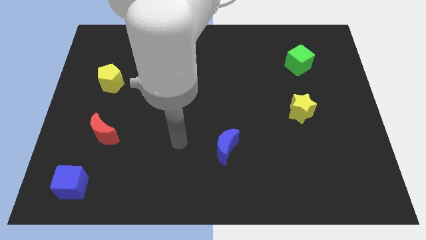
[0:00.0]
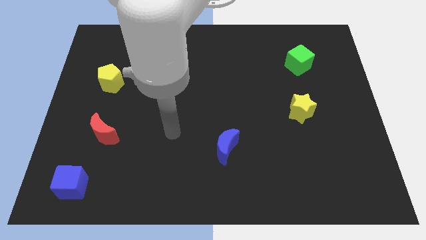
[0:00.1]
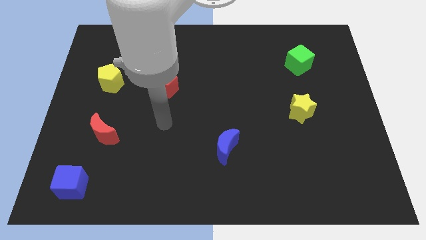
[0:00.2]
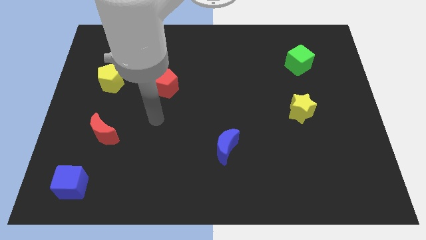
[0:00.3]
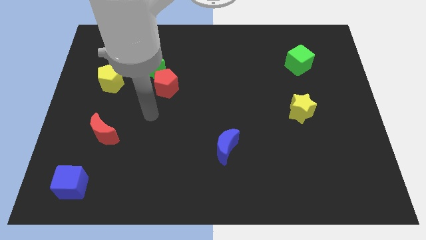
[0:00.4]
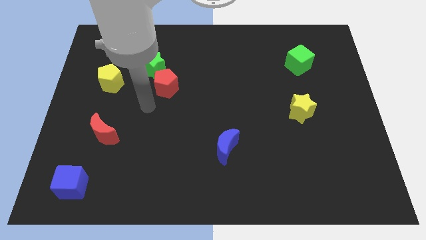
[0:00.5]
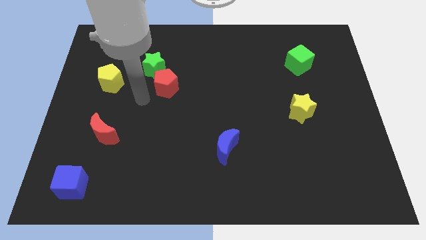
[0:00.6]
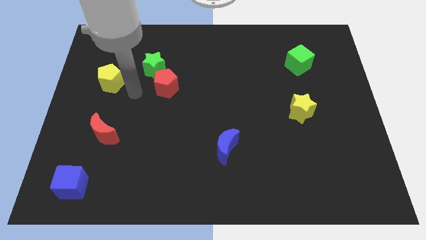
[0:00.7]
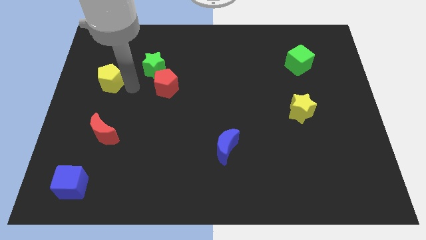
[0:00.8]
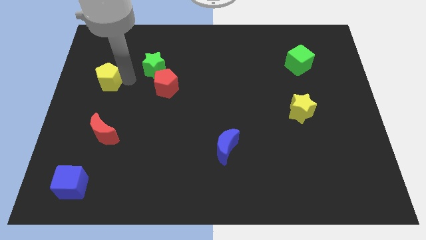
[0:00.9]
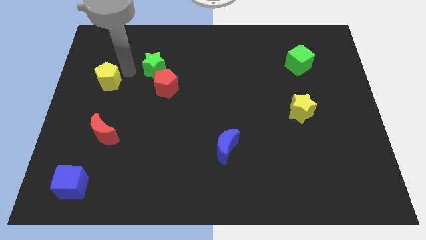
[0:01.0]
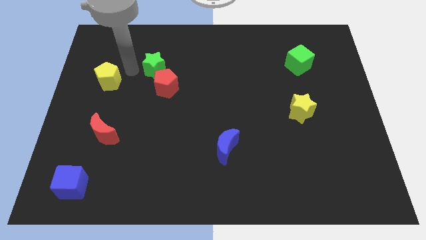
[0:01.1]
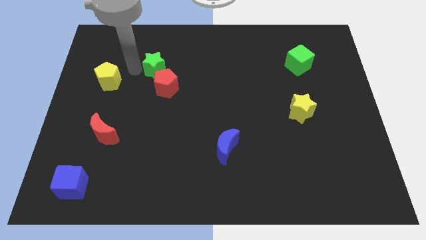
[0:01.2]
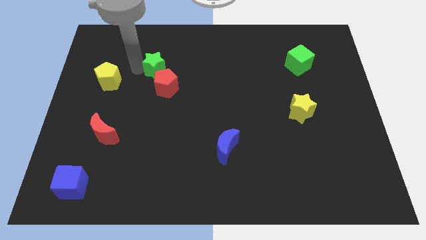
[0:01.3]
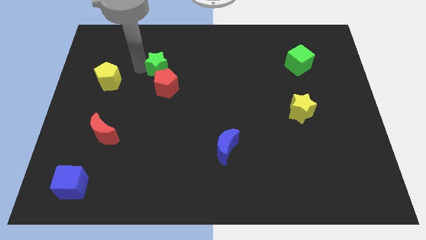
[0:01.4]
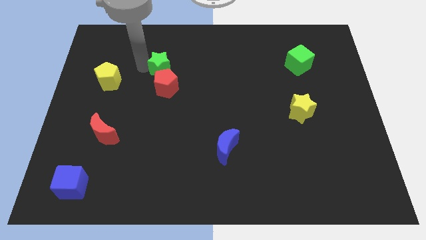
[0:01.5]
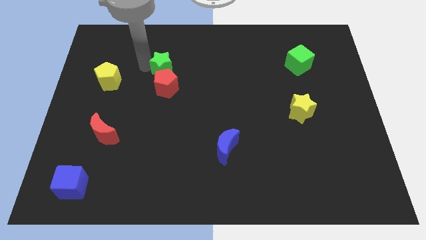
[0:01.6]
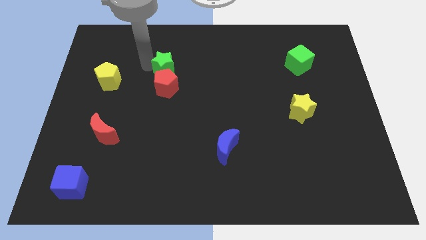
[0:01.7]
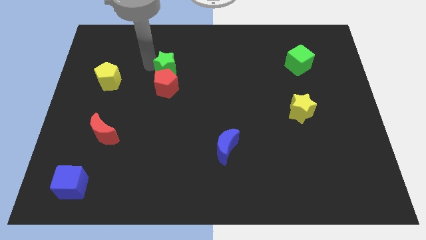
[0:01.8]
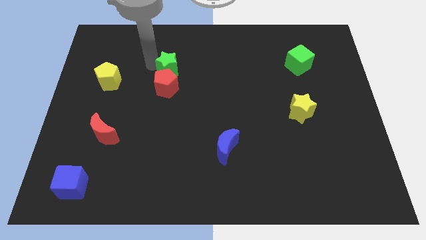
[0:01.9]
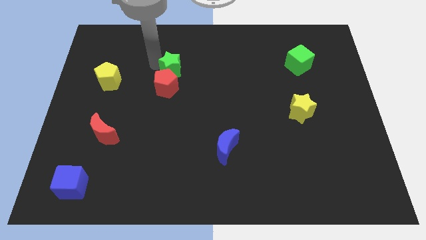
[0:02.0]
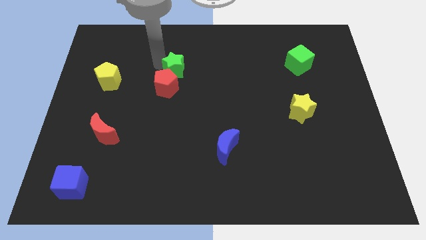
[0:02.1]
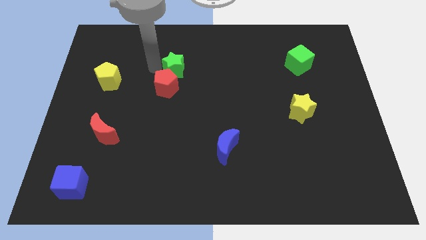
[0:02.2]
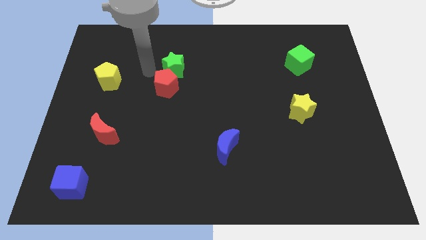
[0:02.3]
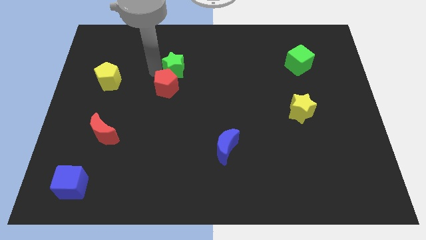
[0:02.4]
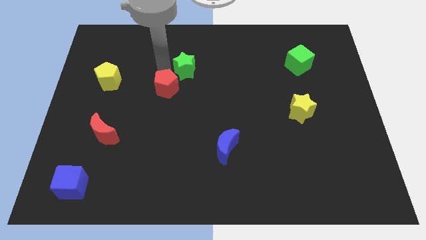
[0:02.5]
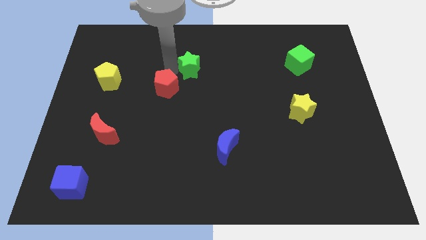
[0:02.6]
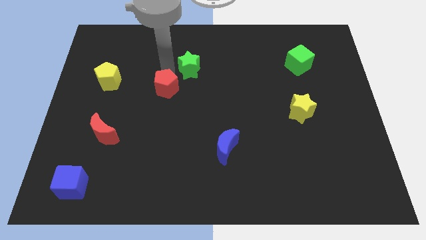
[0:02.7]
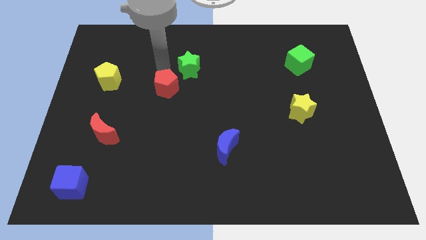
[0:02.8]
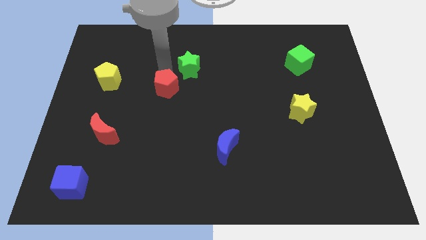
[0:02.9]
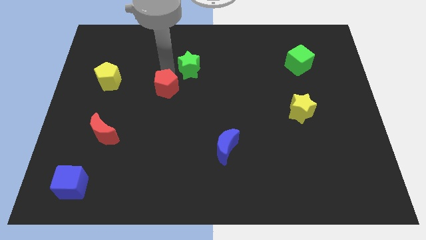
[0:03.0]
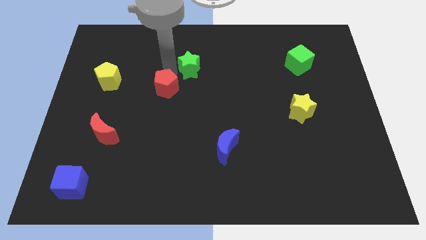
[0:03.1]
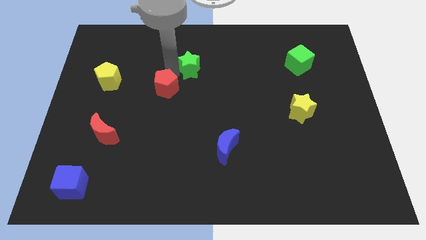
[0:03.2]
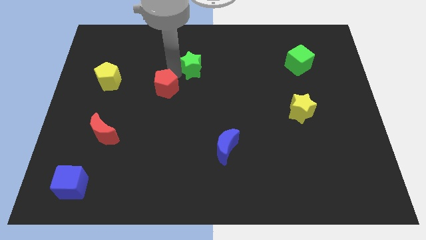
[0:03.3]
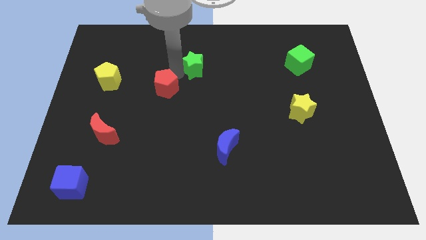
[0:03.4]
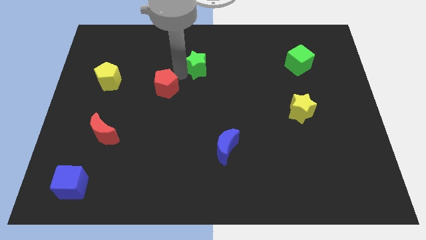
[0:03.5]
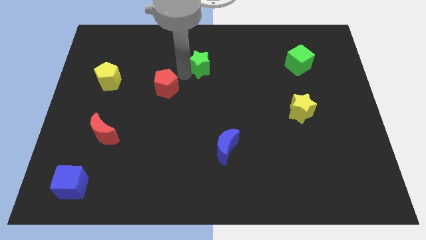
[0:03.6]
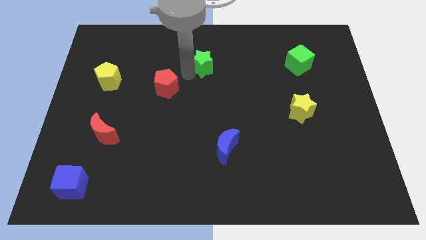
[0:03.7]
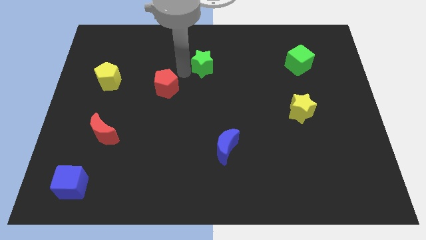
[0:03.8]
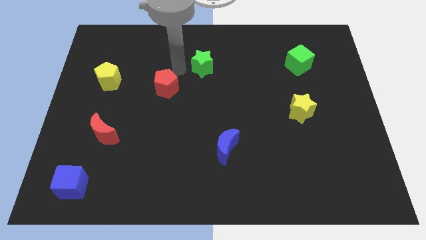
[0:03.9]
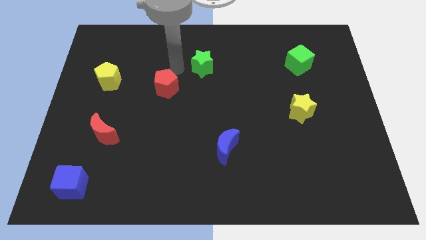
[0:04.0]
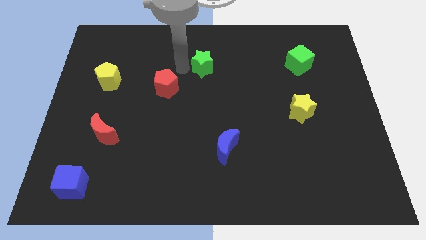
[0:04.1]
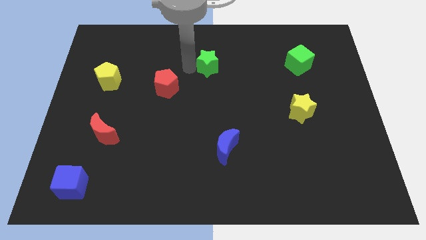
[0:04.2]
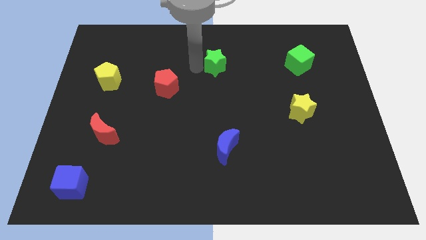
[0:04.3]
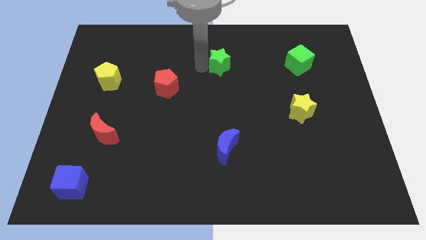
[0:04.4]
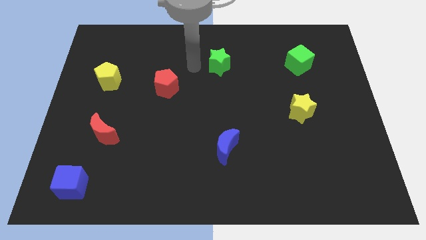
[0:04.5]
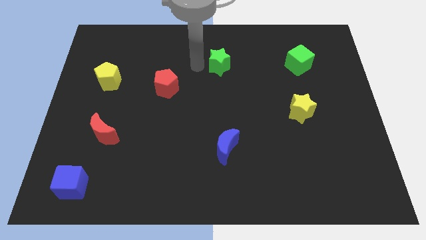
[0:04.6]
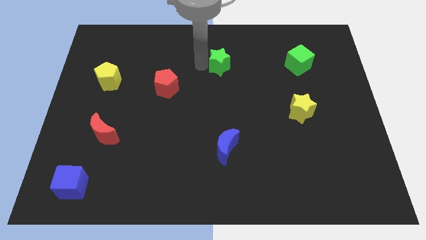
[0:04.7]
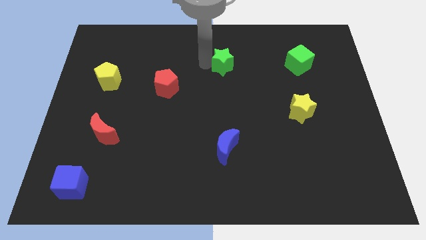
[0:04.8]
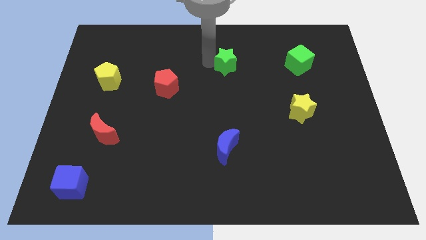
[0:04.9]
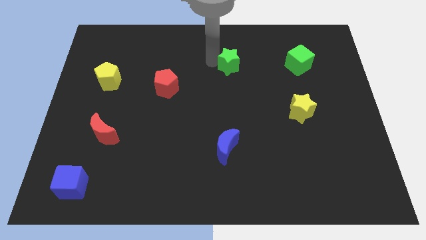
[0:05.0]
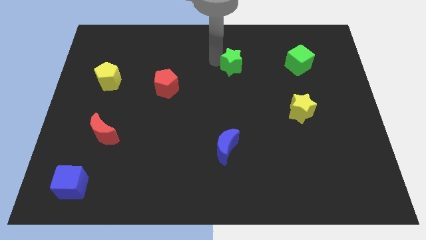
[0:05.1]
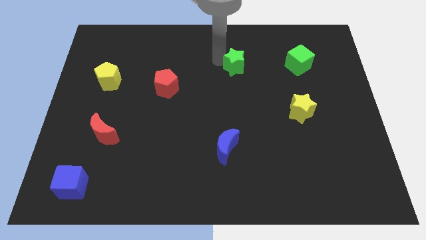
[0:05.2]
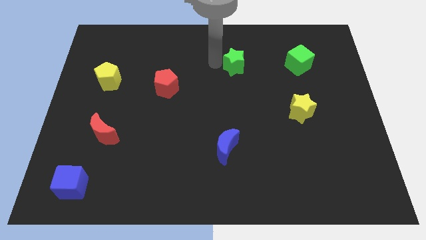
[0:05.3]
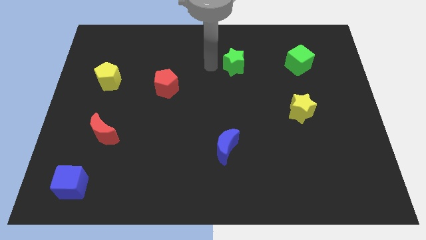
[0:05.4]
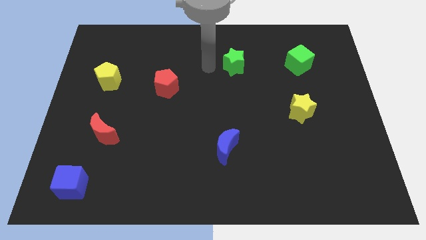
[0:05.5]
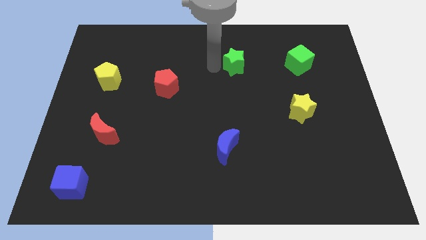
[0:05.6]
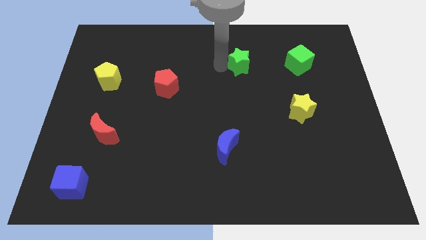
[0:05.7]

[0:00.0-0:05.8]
put the green star left of the green cube
